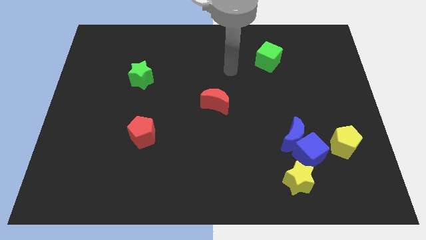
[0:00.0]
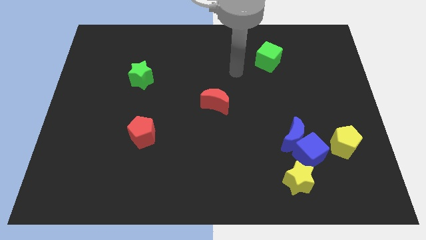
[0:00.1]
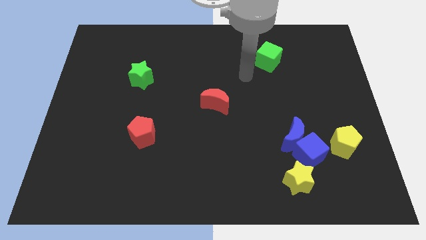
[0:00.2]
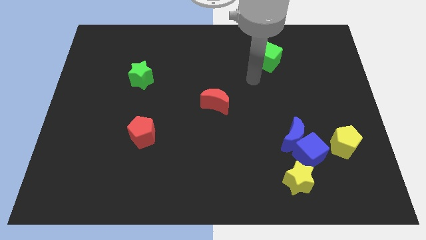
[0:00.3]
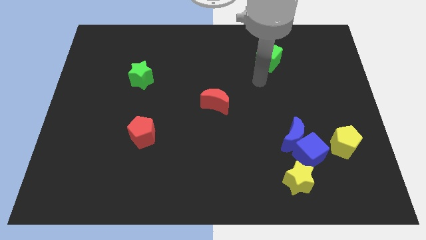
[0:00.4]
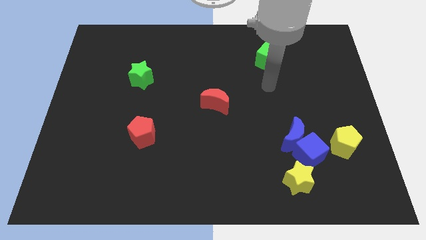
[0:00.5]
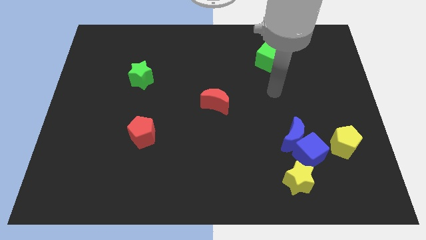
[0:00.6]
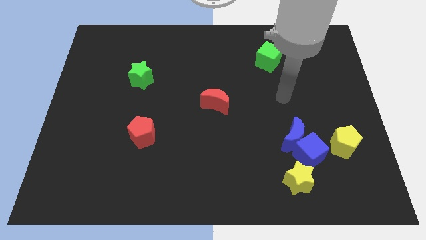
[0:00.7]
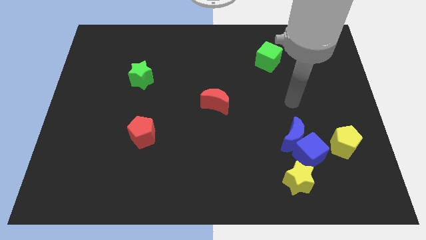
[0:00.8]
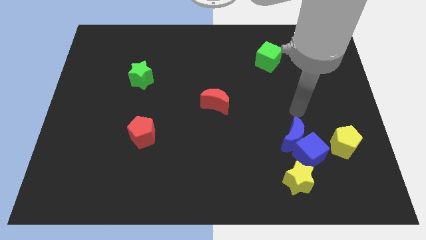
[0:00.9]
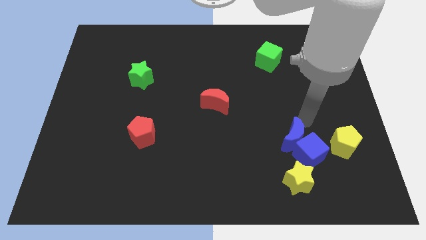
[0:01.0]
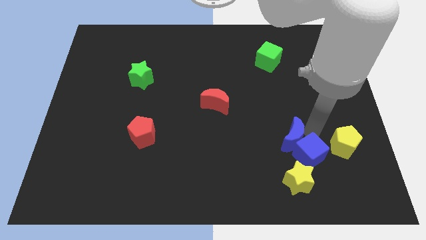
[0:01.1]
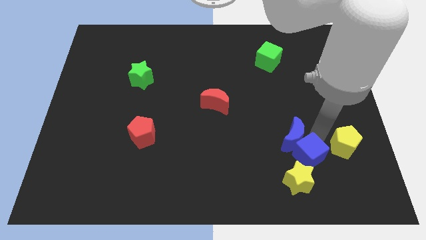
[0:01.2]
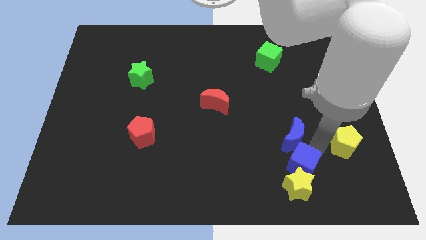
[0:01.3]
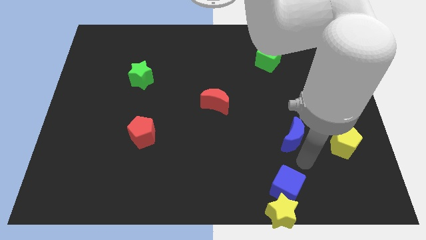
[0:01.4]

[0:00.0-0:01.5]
separate the blue moon from the blue cube

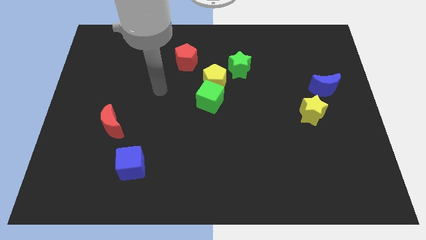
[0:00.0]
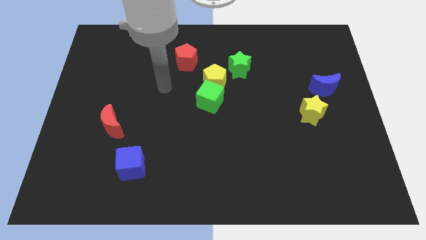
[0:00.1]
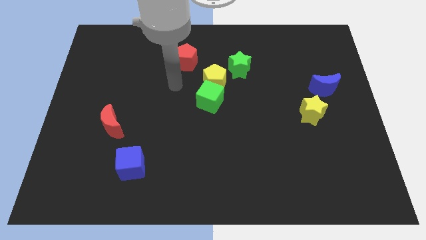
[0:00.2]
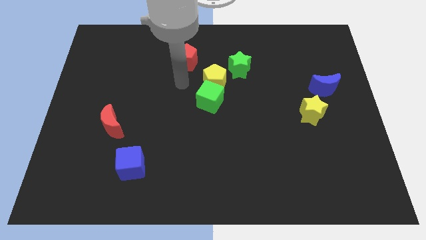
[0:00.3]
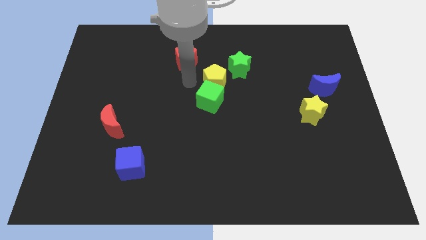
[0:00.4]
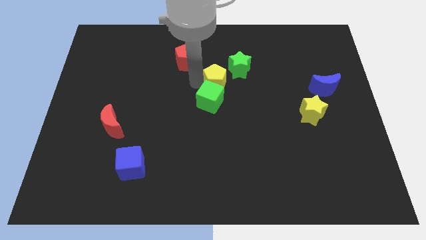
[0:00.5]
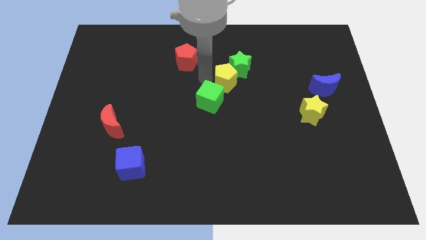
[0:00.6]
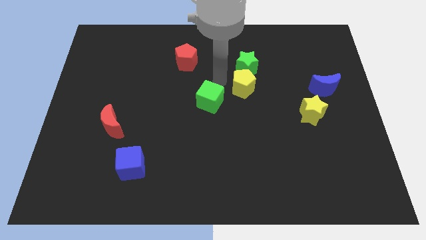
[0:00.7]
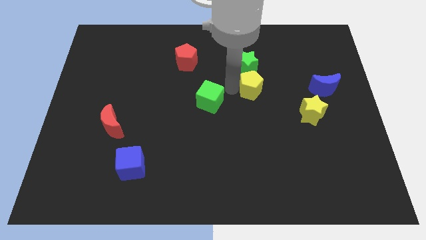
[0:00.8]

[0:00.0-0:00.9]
pull the green cube apart from the yellow pentagon

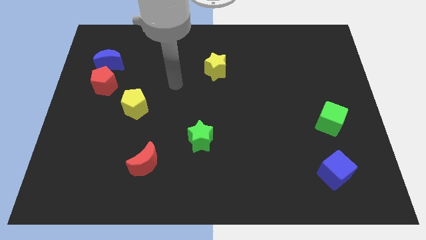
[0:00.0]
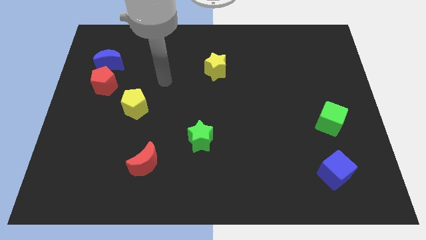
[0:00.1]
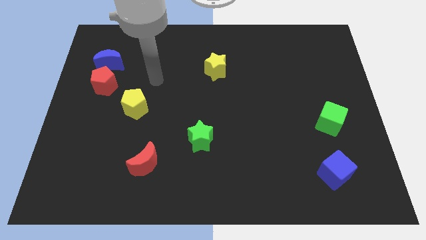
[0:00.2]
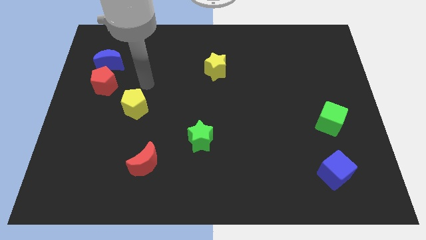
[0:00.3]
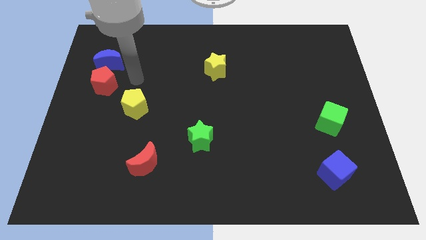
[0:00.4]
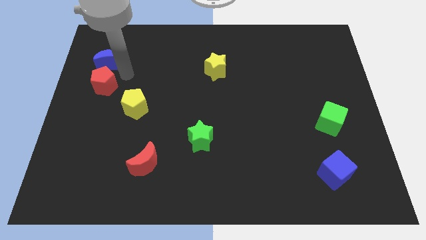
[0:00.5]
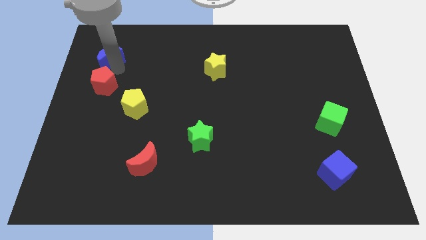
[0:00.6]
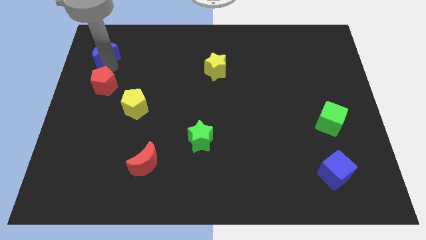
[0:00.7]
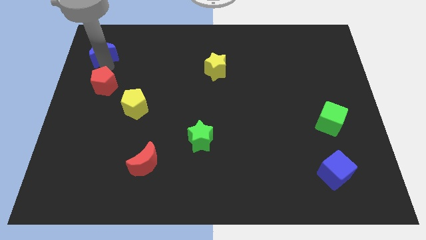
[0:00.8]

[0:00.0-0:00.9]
pull the red pentagon apart from the blue moon

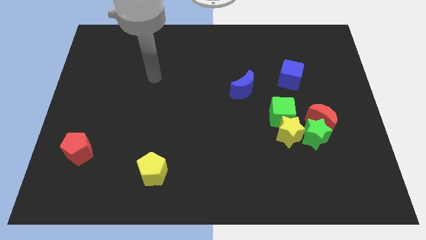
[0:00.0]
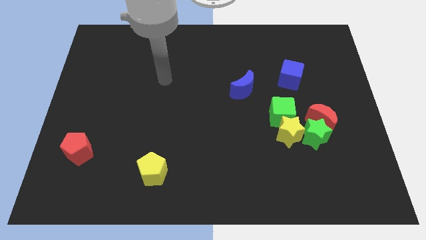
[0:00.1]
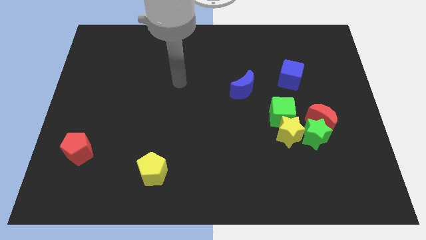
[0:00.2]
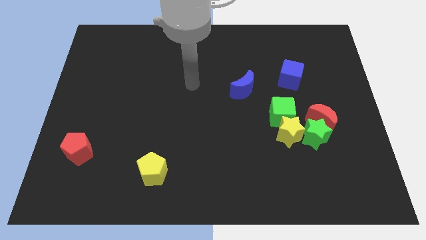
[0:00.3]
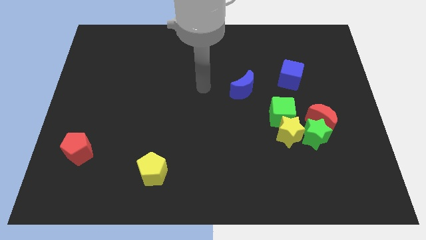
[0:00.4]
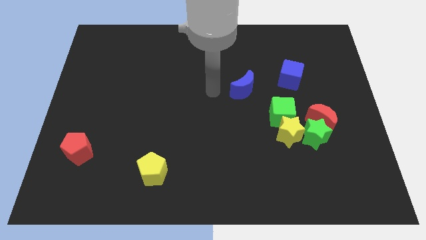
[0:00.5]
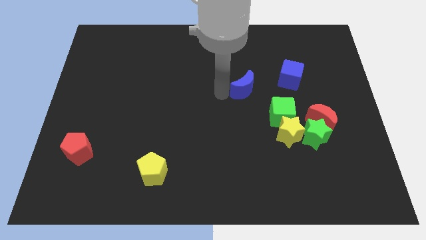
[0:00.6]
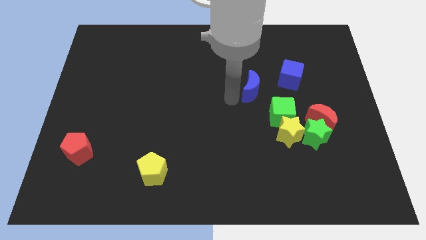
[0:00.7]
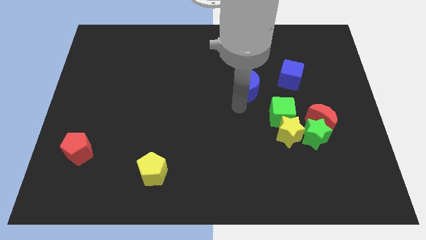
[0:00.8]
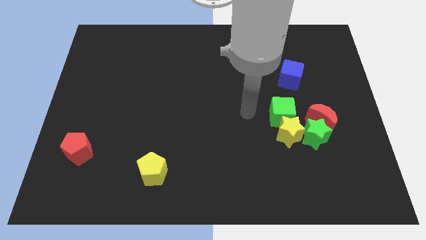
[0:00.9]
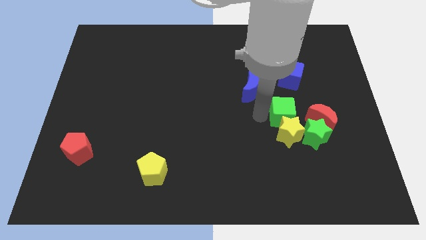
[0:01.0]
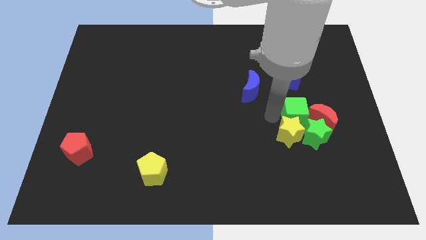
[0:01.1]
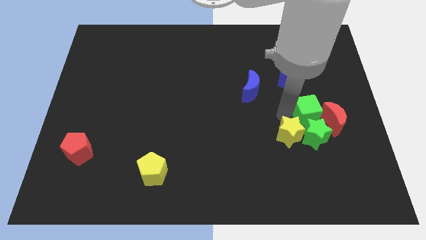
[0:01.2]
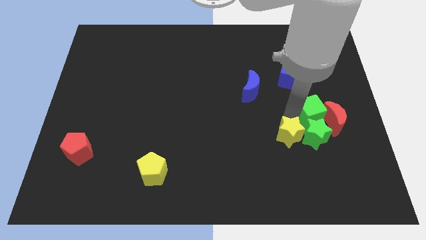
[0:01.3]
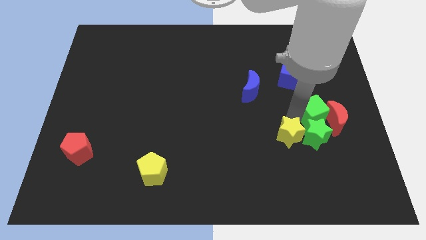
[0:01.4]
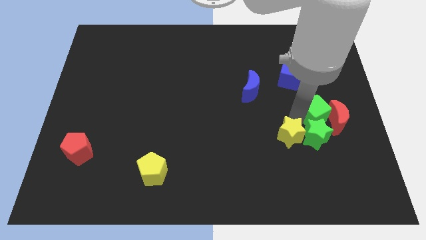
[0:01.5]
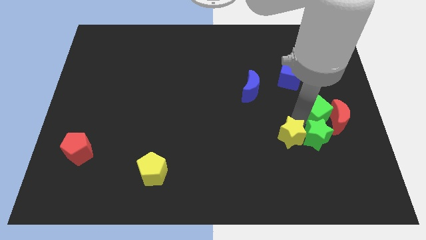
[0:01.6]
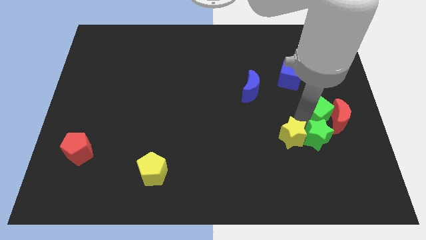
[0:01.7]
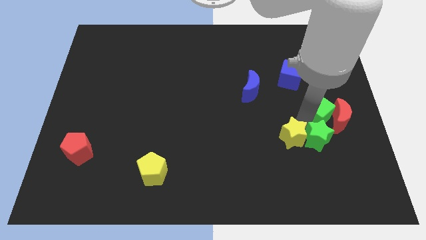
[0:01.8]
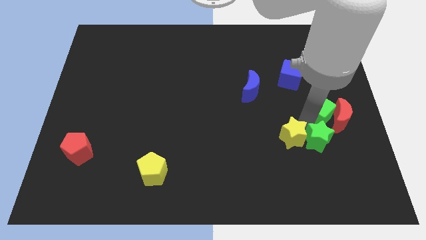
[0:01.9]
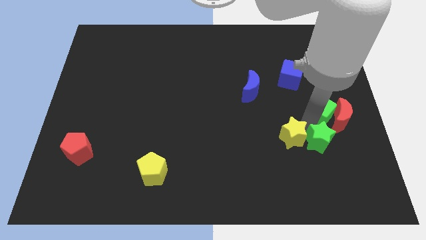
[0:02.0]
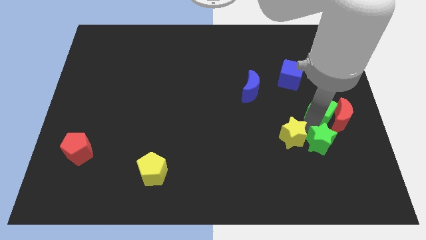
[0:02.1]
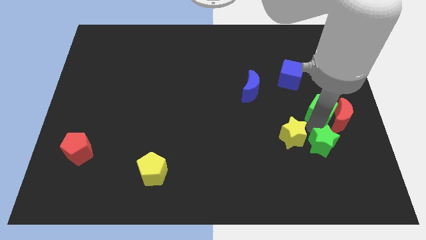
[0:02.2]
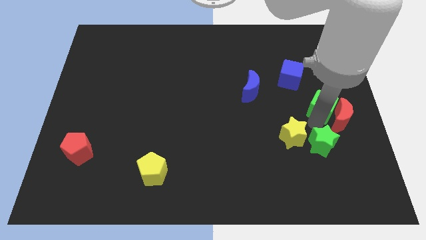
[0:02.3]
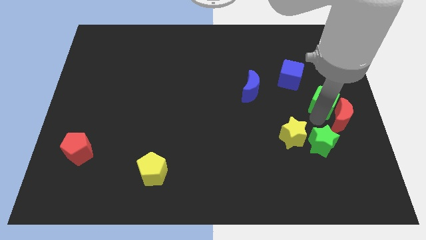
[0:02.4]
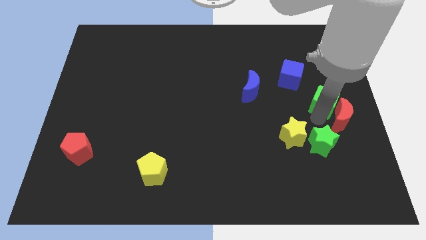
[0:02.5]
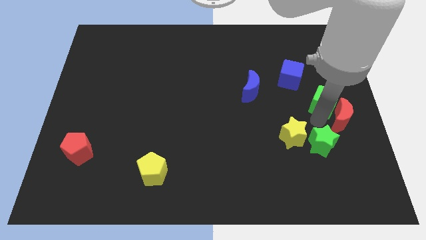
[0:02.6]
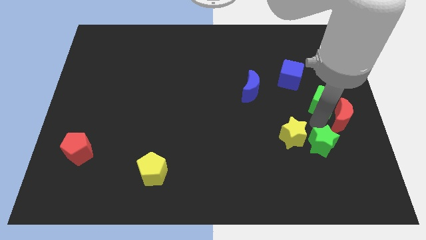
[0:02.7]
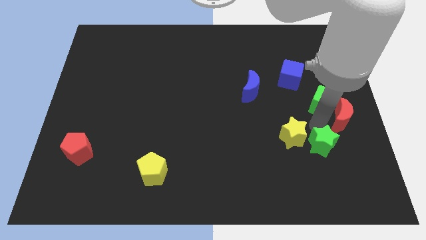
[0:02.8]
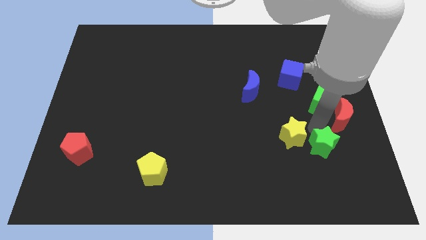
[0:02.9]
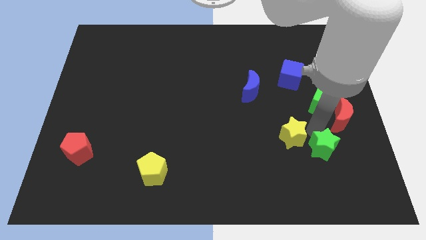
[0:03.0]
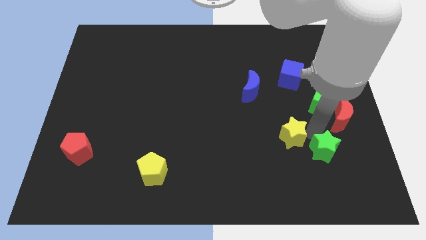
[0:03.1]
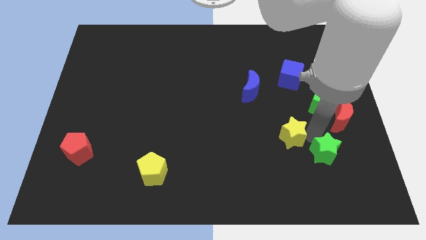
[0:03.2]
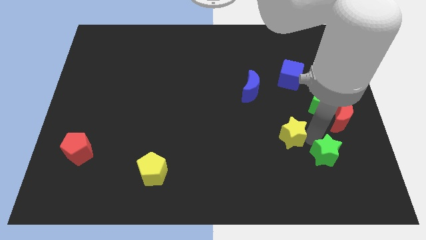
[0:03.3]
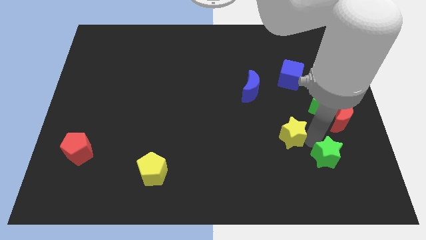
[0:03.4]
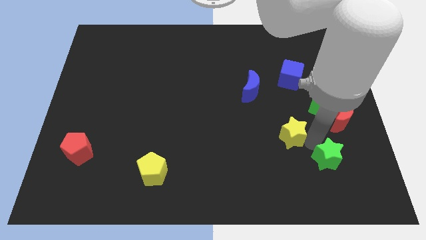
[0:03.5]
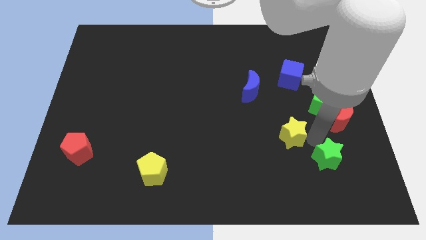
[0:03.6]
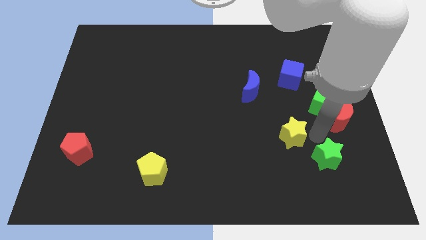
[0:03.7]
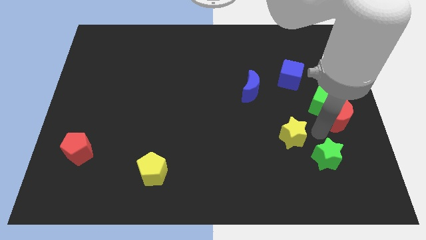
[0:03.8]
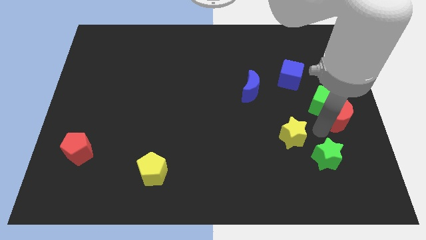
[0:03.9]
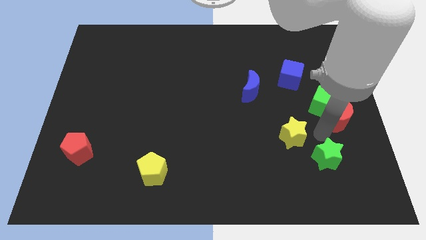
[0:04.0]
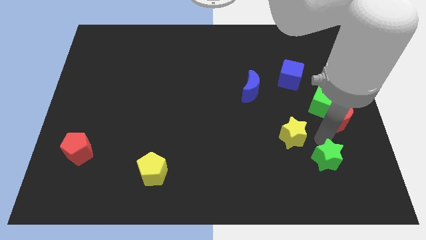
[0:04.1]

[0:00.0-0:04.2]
separate the green star from the red moon, yellow star, and green cube

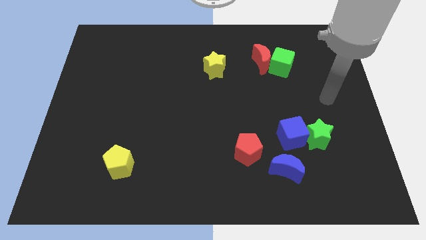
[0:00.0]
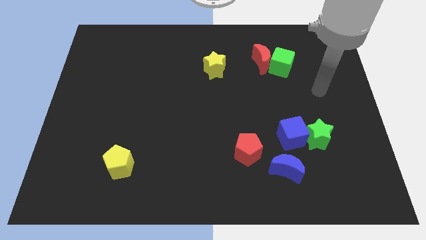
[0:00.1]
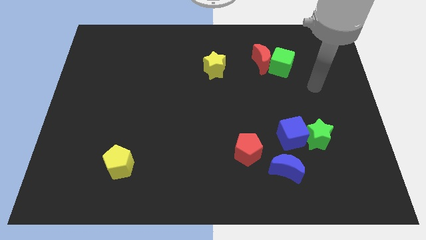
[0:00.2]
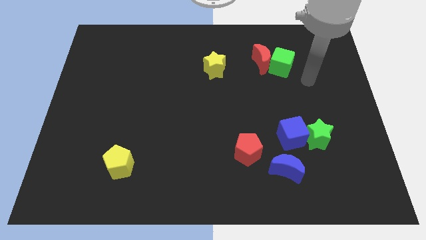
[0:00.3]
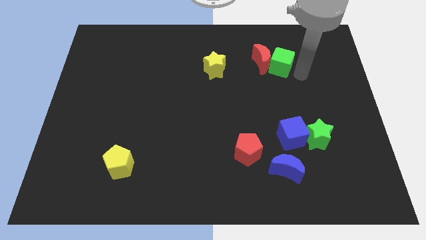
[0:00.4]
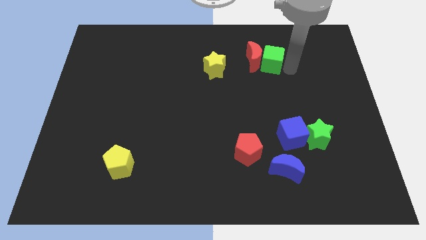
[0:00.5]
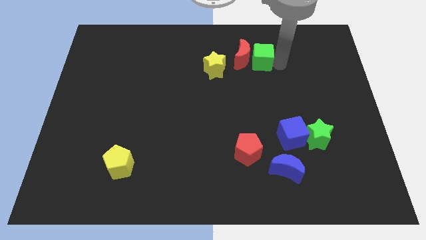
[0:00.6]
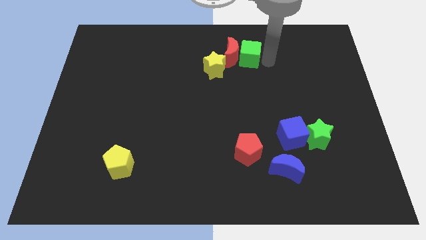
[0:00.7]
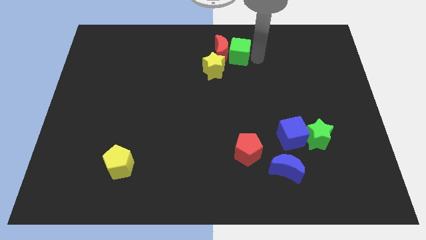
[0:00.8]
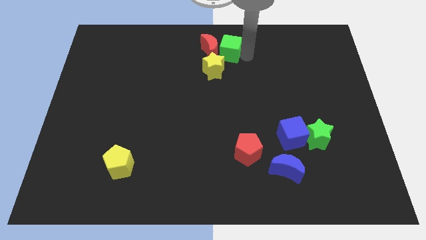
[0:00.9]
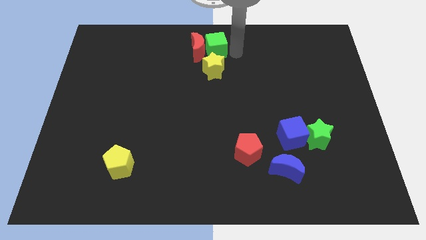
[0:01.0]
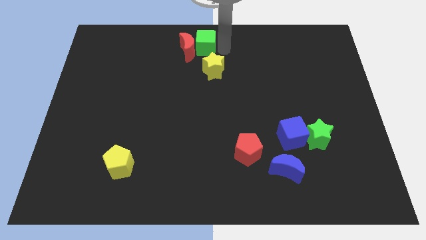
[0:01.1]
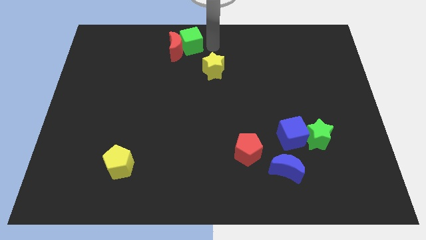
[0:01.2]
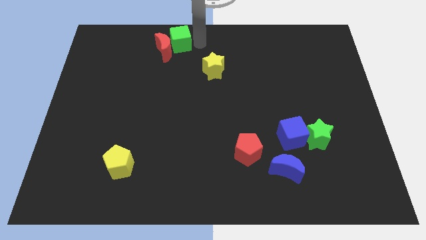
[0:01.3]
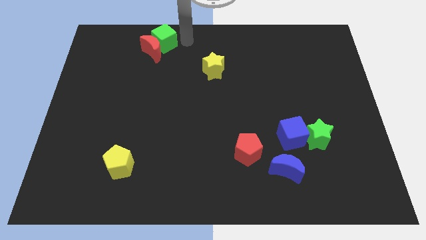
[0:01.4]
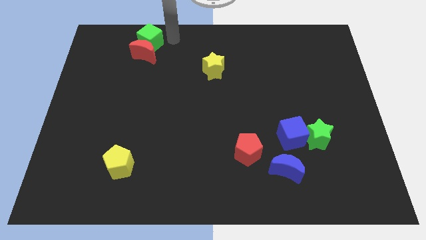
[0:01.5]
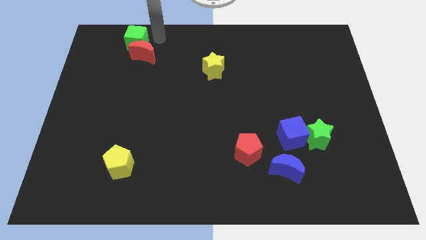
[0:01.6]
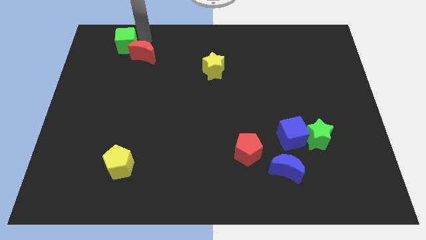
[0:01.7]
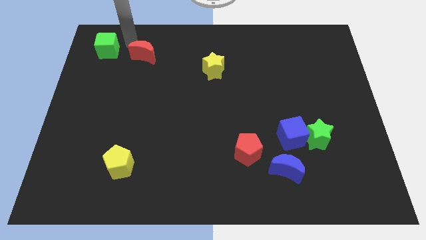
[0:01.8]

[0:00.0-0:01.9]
move the red moon away from the green cube
